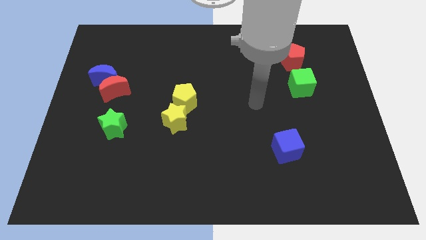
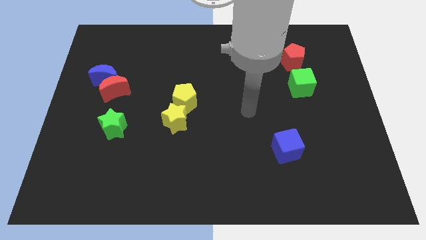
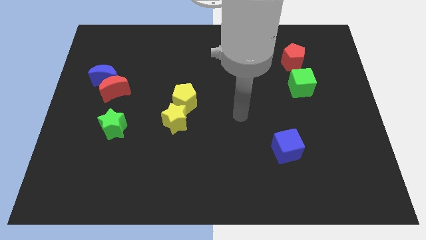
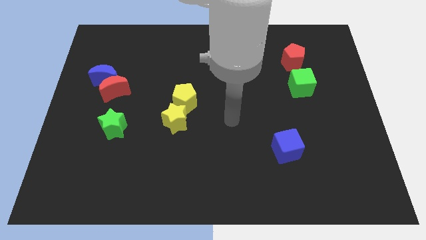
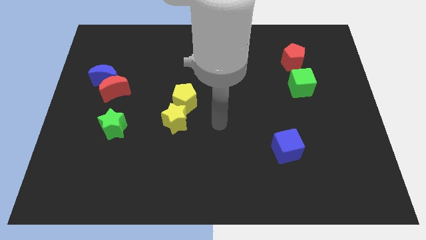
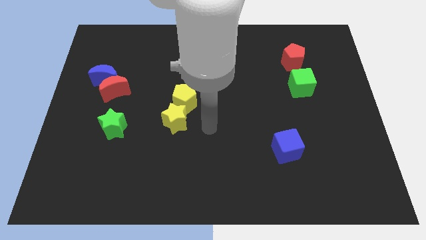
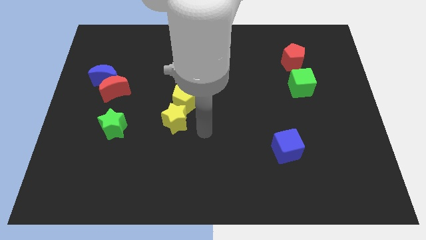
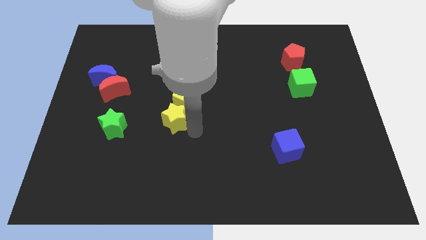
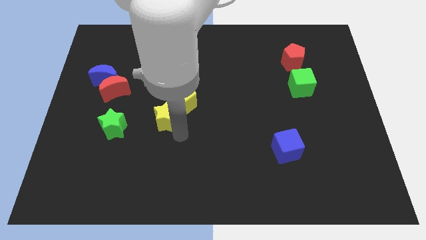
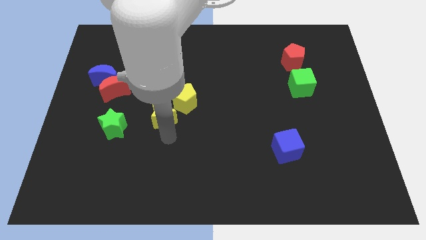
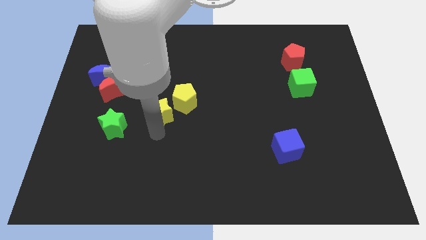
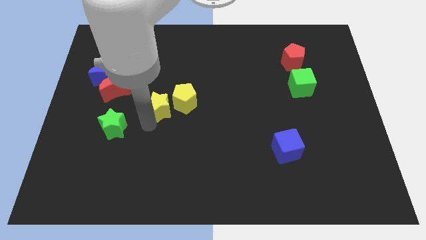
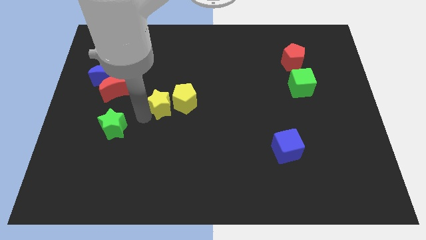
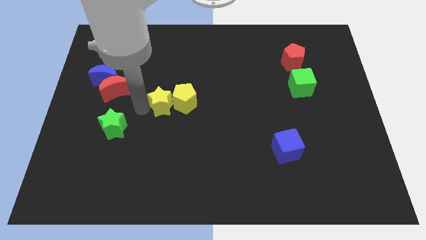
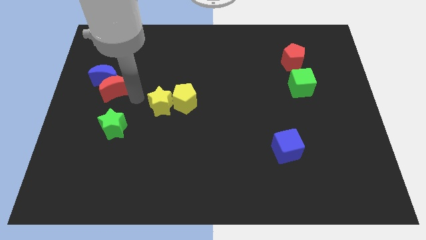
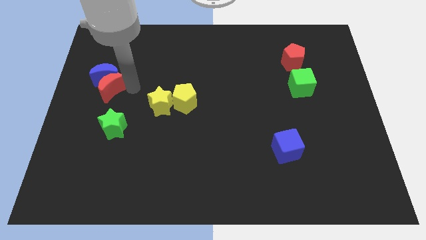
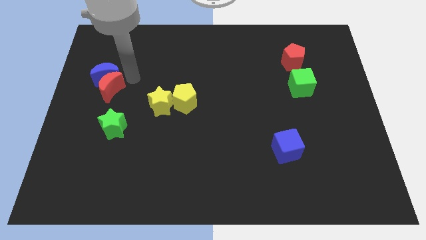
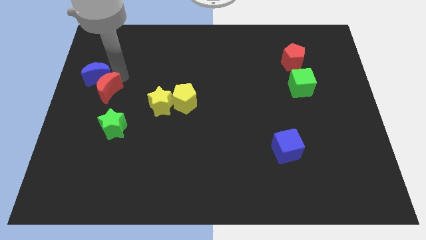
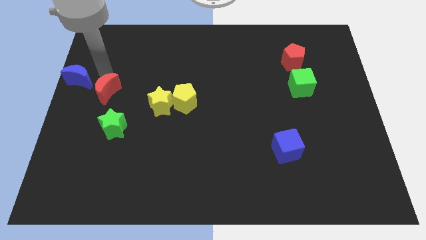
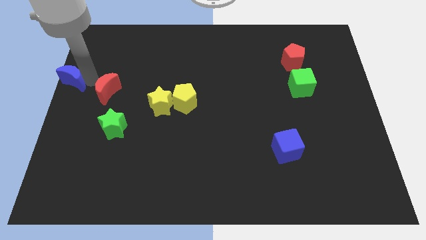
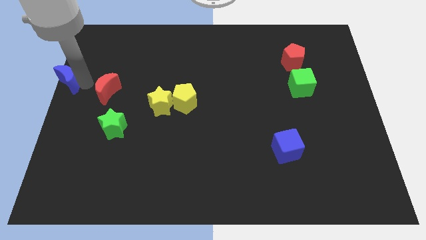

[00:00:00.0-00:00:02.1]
pull the red moon apart from the blue moon

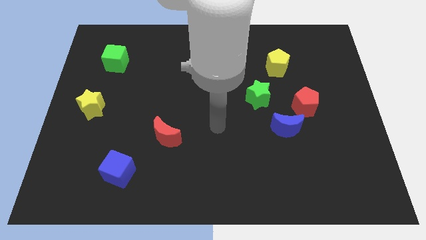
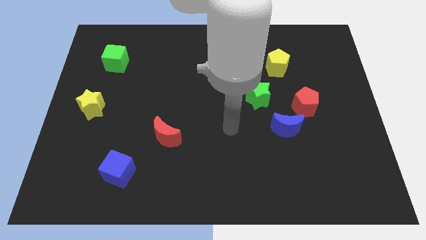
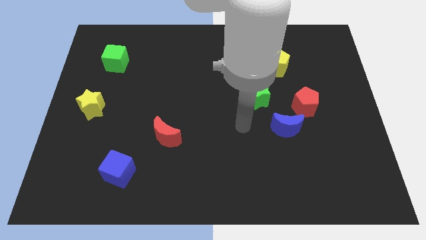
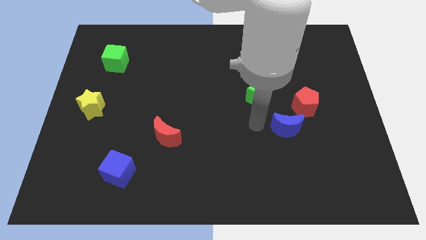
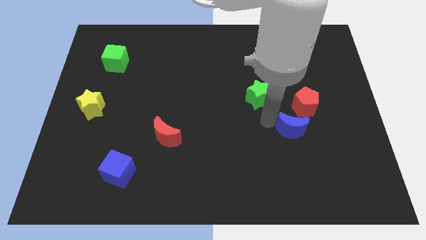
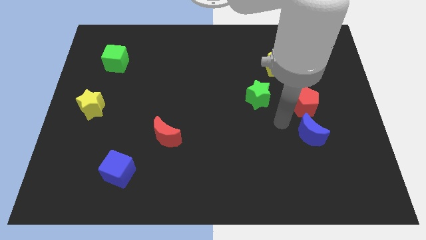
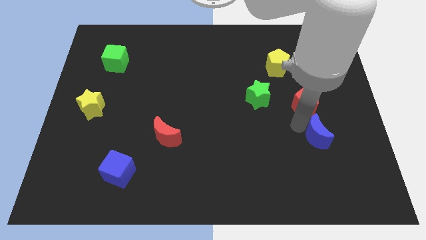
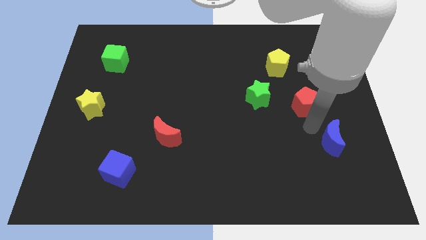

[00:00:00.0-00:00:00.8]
separate the red pentagon from the blue moon

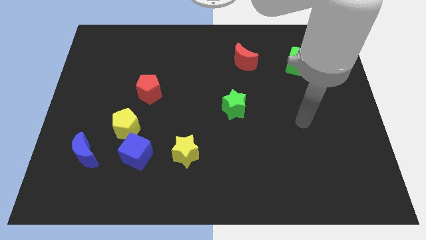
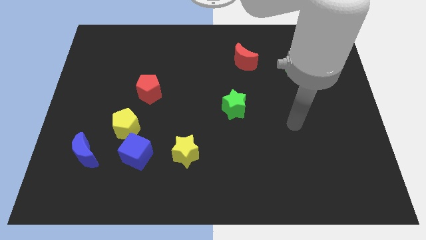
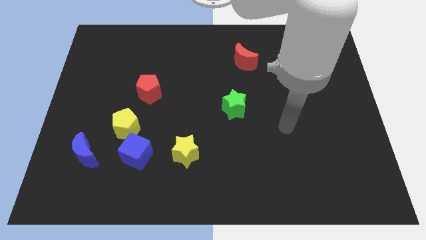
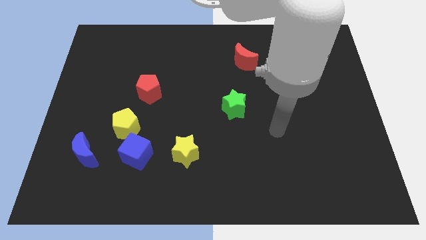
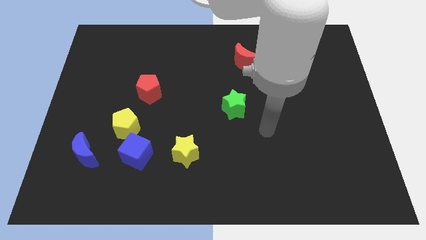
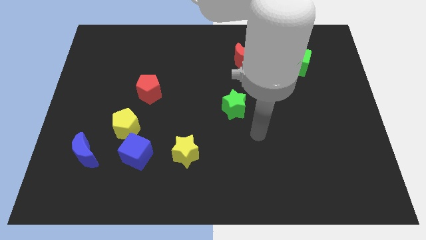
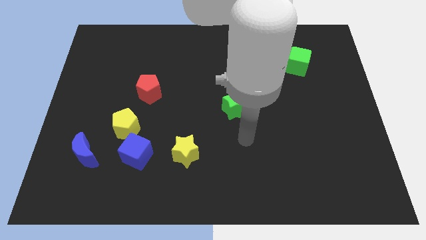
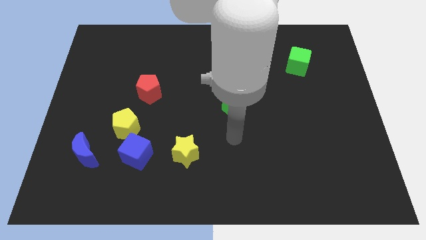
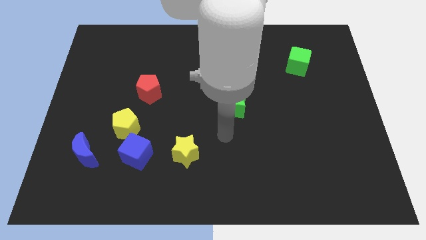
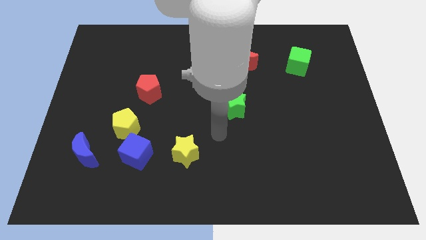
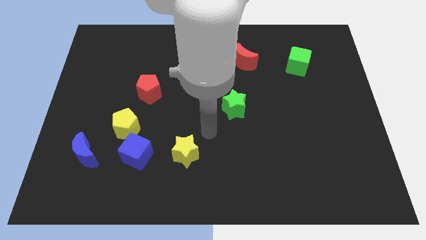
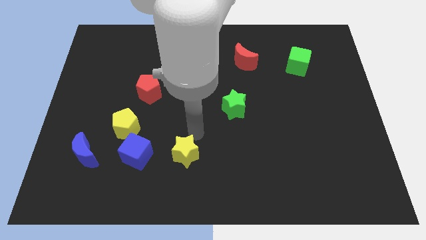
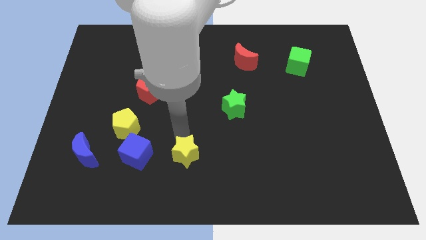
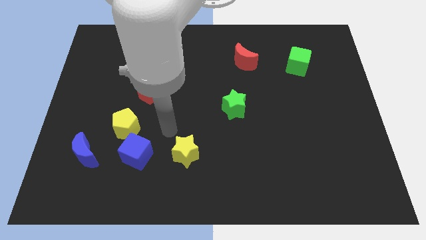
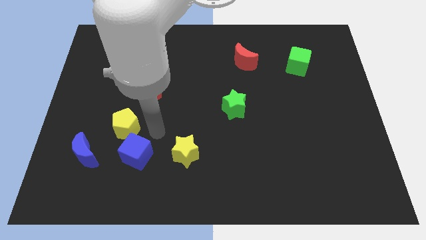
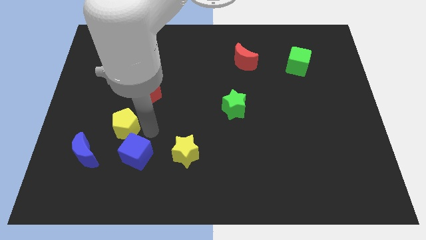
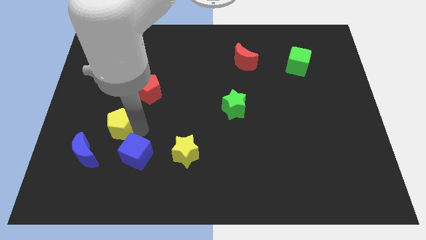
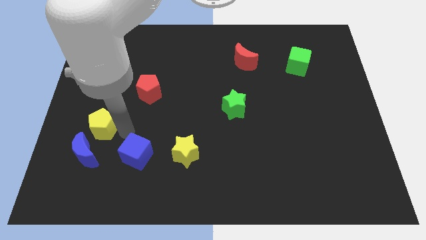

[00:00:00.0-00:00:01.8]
move the blue cube away from the yellow pentagon

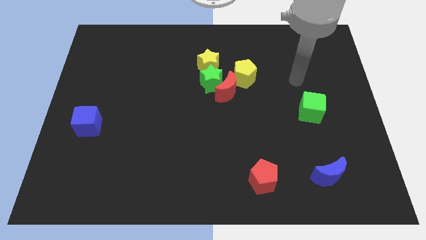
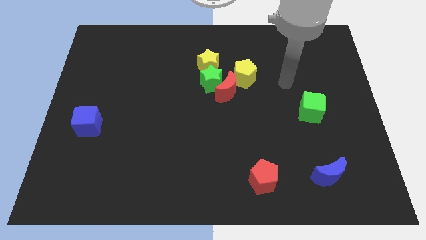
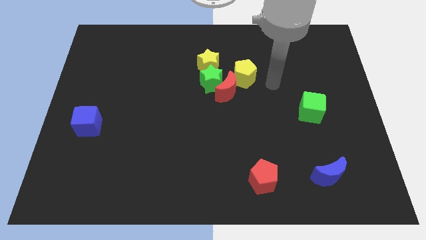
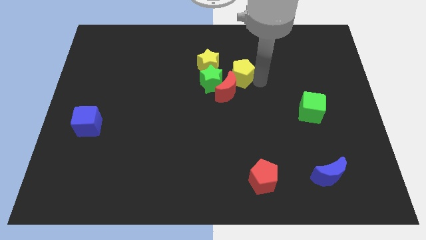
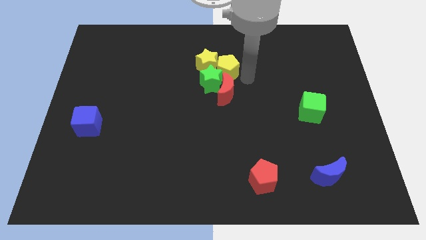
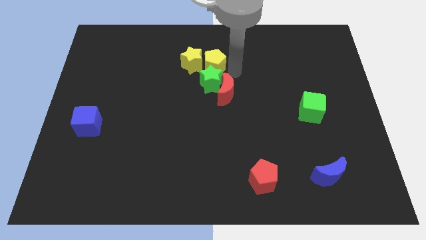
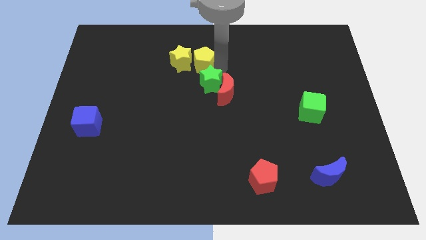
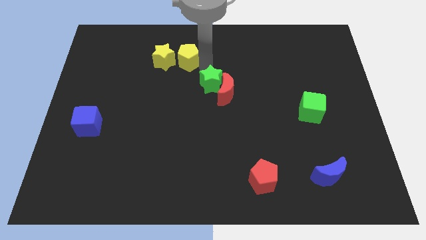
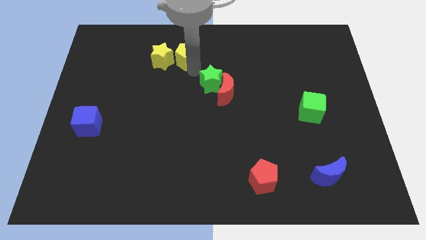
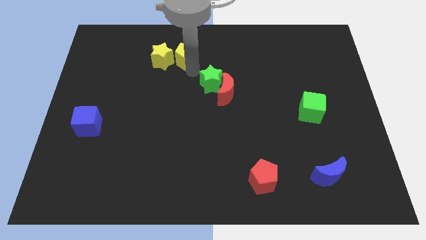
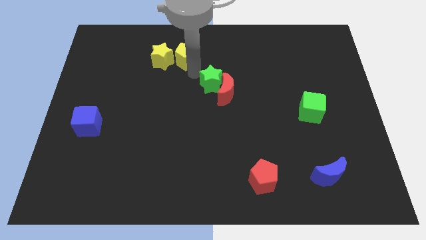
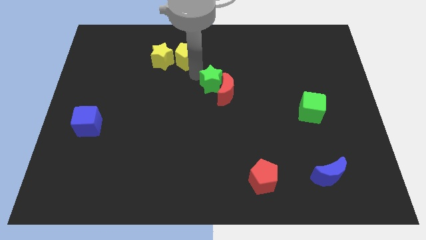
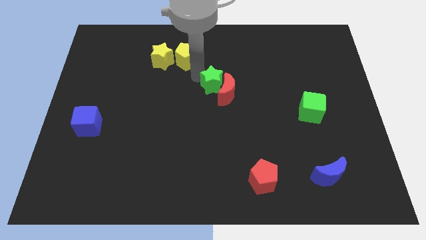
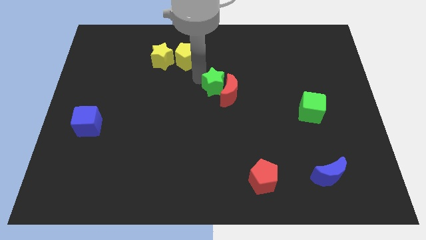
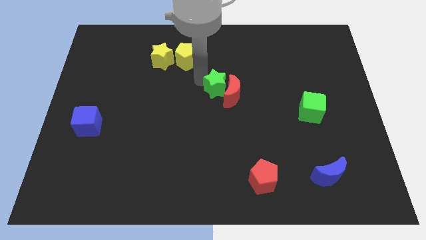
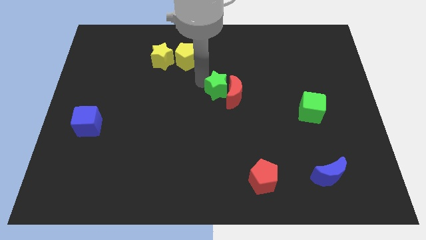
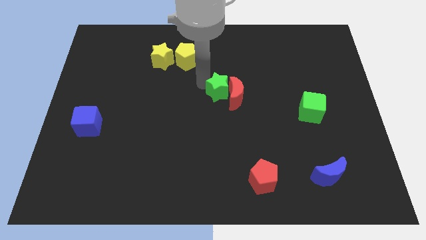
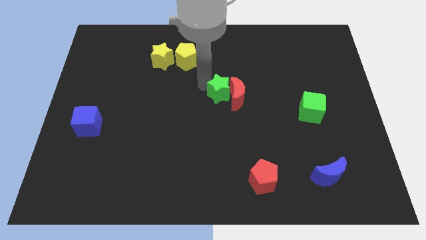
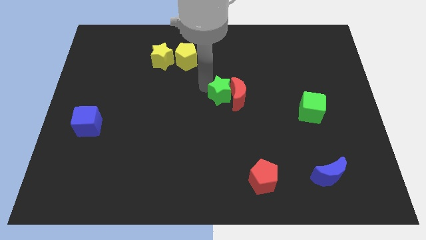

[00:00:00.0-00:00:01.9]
pull the green star apart from the red moon, yellow star, and yellow pentagon

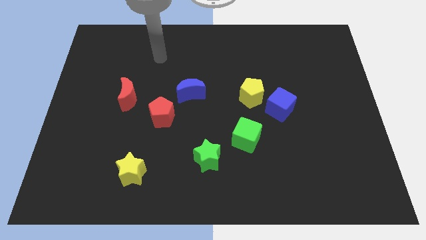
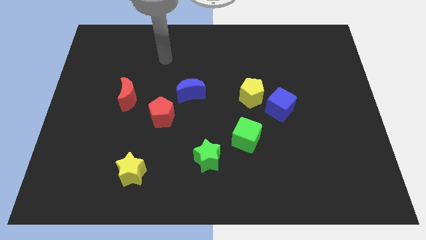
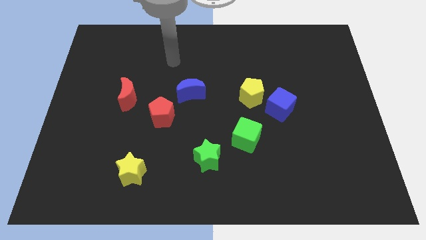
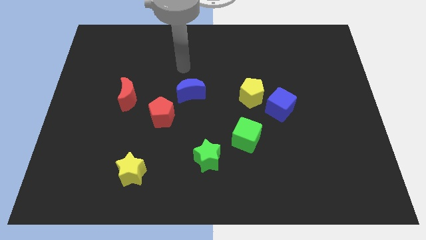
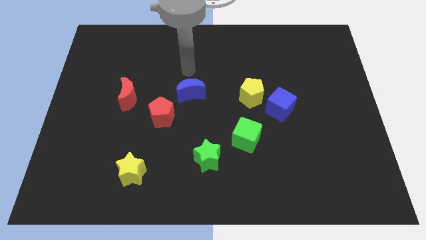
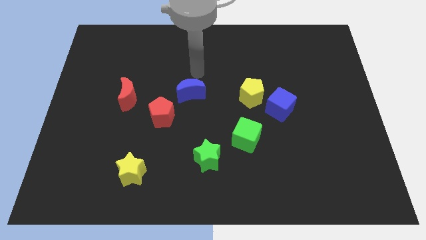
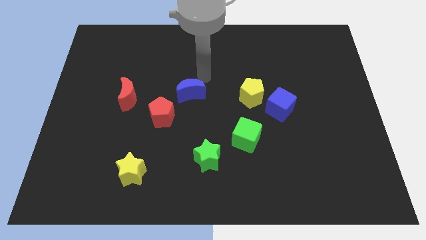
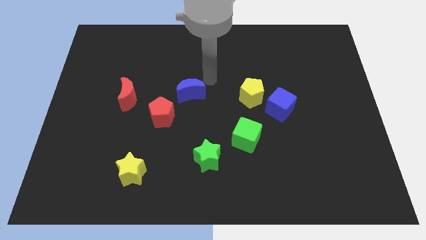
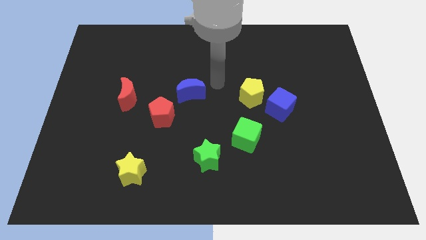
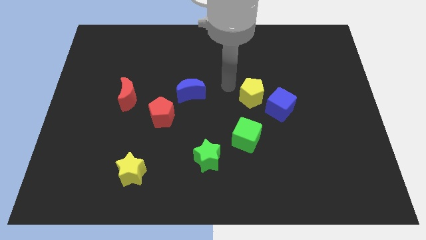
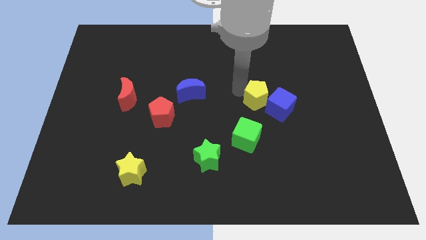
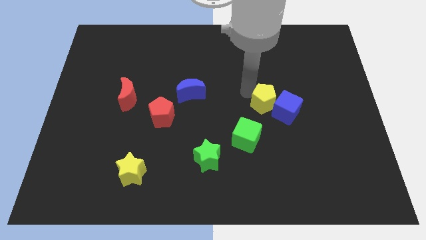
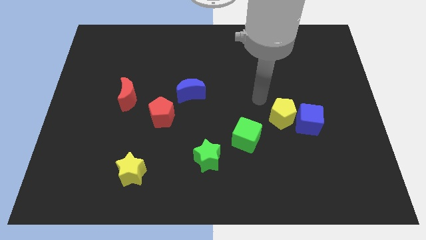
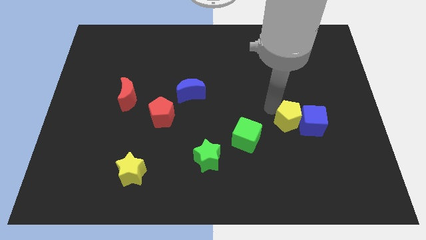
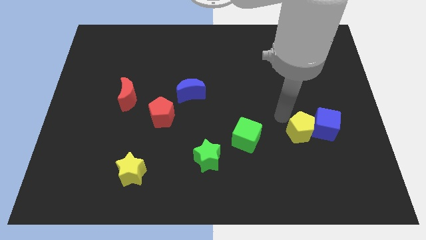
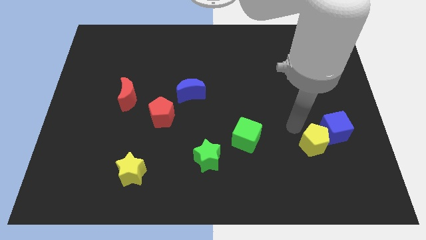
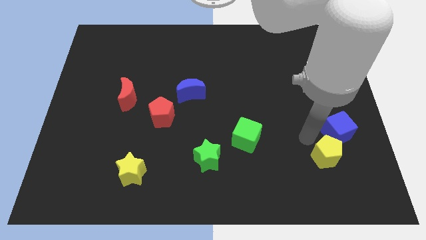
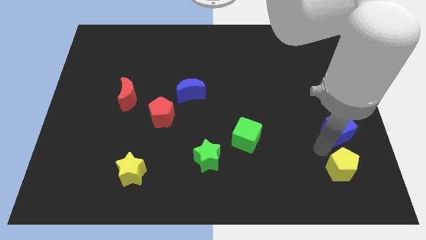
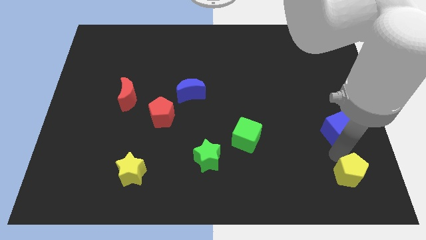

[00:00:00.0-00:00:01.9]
pull the blue cube apart from the yellow pentagon

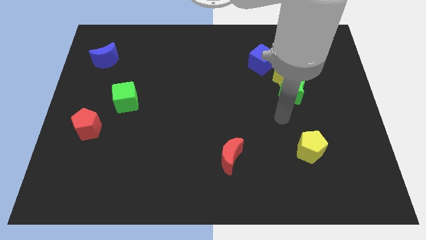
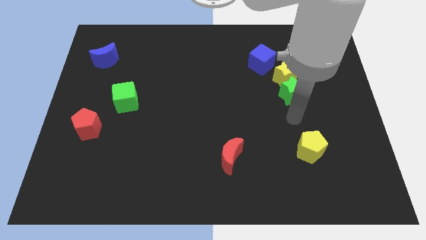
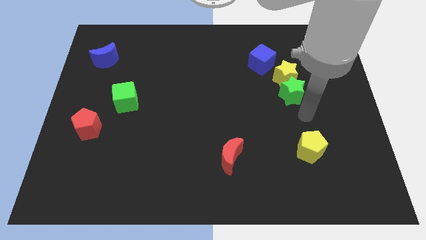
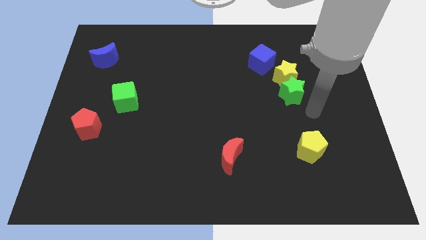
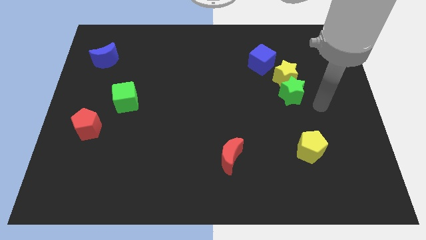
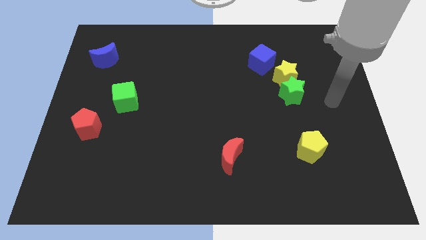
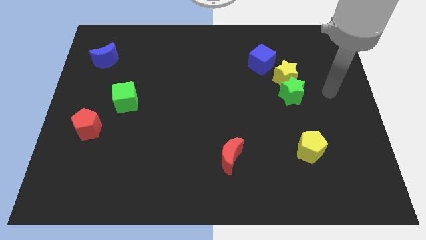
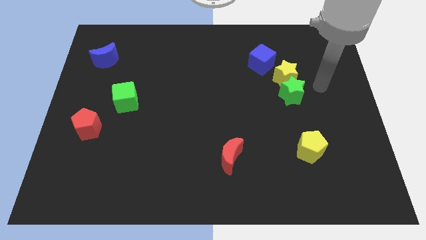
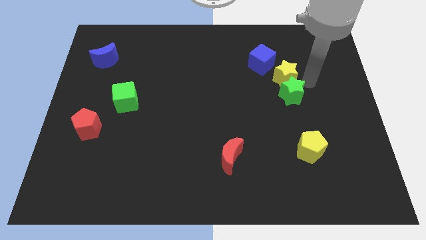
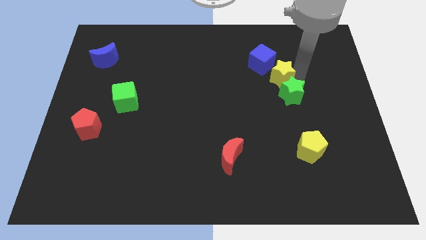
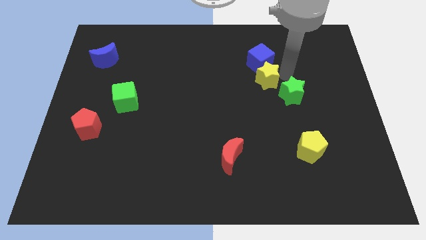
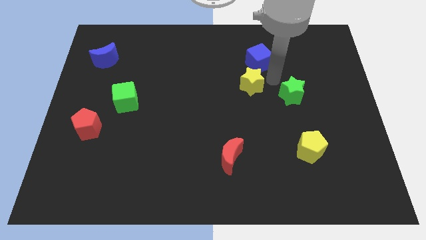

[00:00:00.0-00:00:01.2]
pull the green star apart from the yellow star
